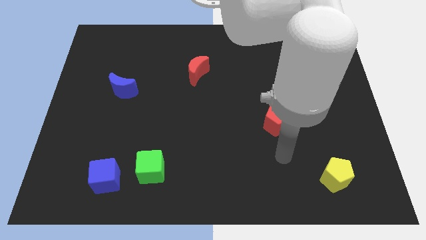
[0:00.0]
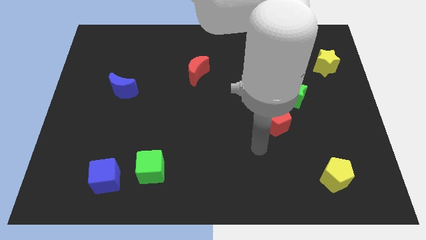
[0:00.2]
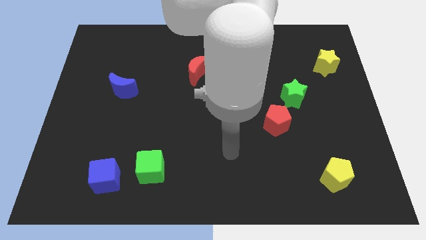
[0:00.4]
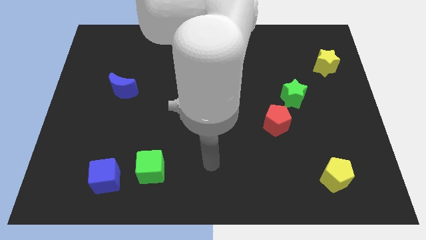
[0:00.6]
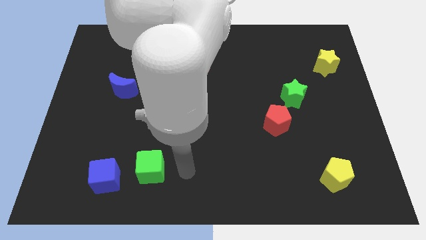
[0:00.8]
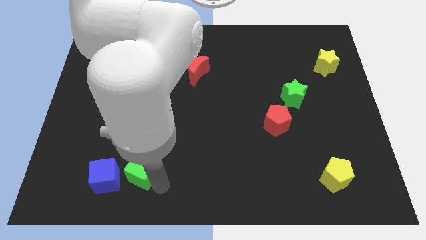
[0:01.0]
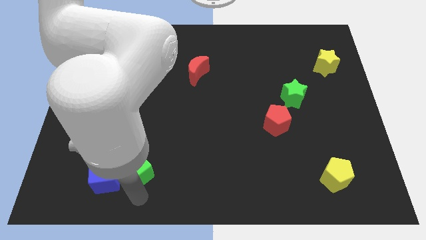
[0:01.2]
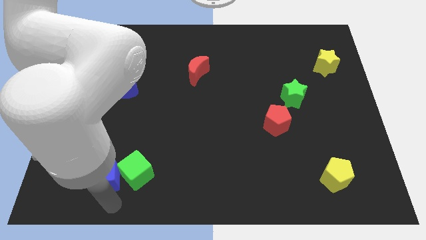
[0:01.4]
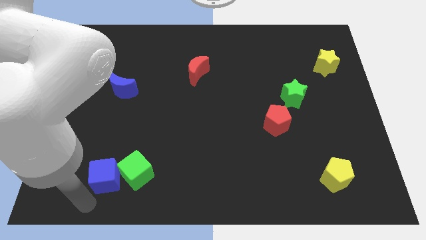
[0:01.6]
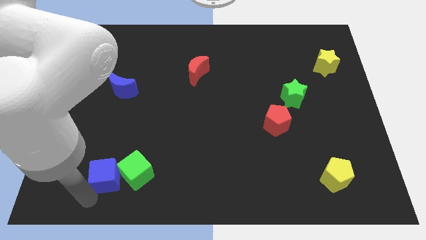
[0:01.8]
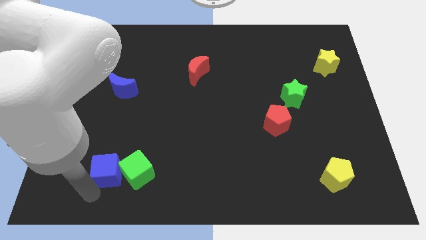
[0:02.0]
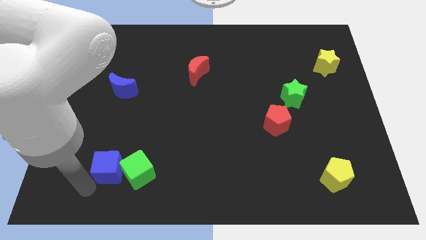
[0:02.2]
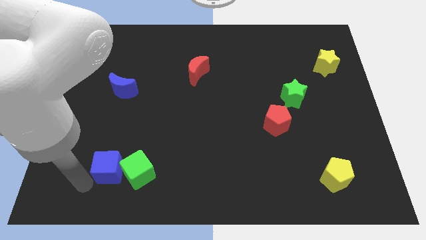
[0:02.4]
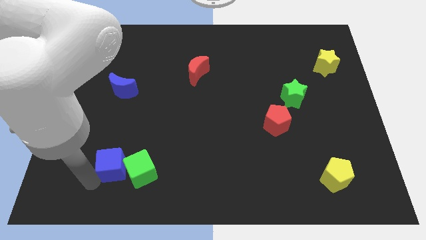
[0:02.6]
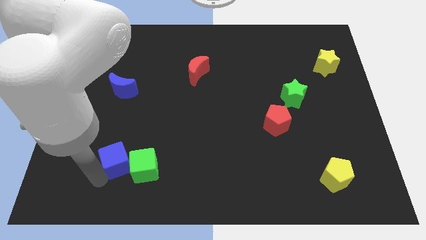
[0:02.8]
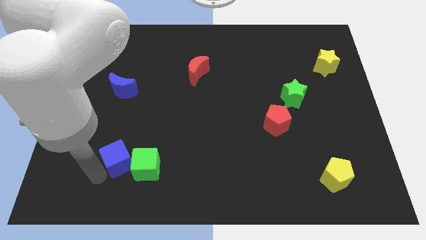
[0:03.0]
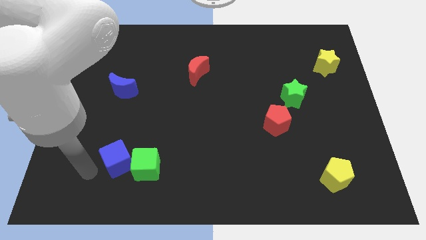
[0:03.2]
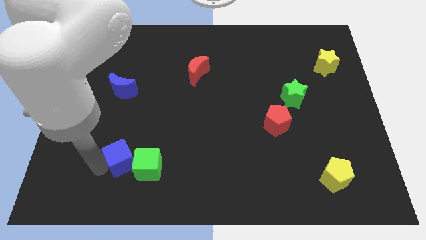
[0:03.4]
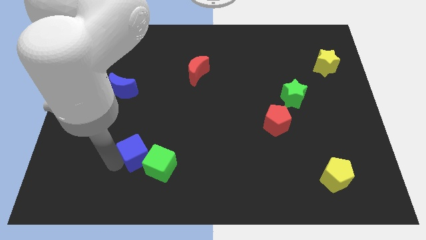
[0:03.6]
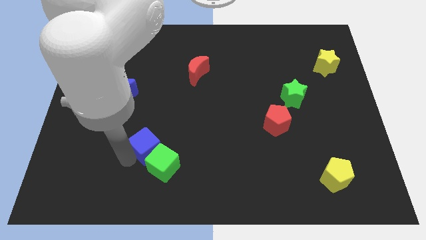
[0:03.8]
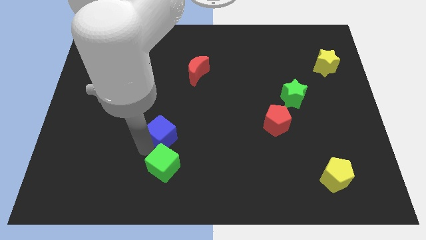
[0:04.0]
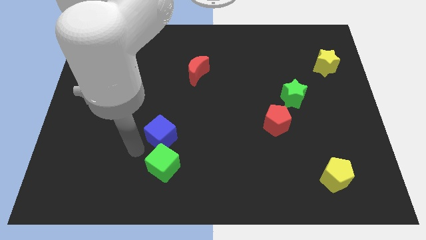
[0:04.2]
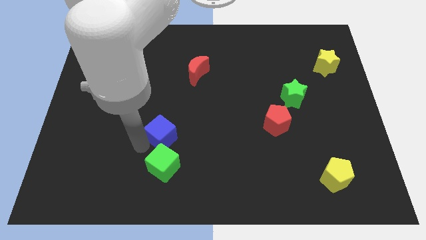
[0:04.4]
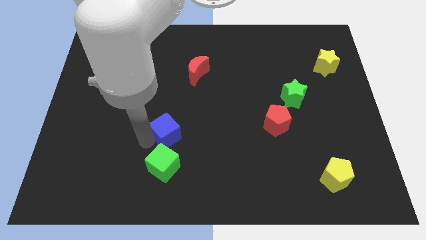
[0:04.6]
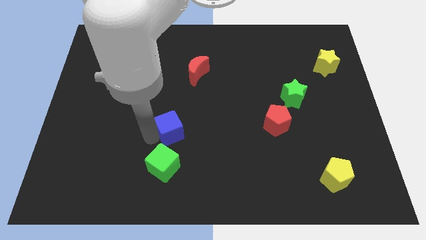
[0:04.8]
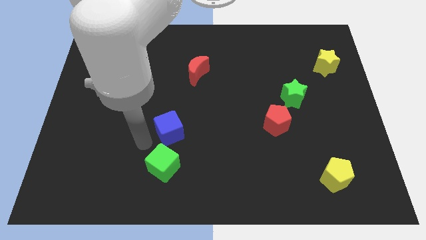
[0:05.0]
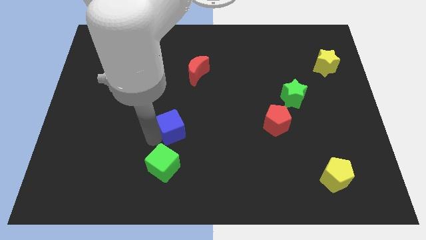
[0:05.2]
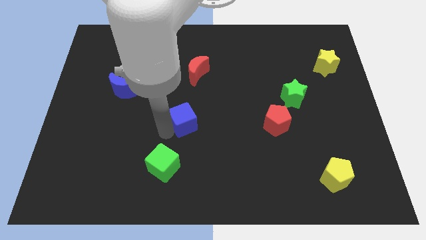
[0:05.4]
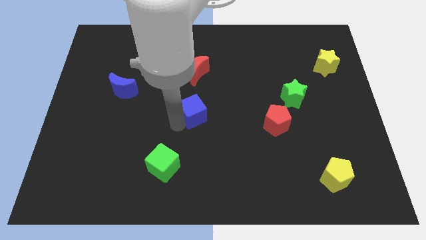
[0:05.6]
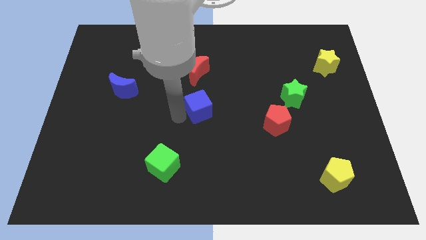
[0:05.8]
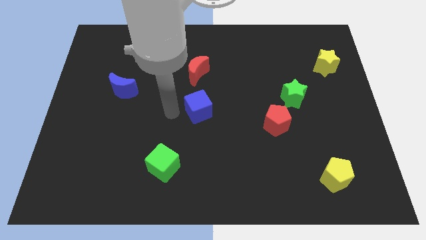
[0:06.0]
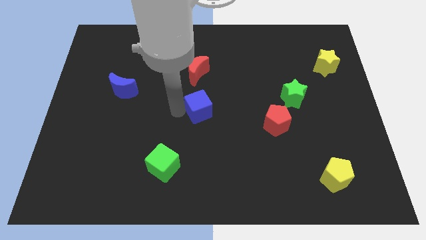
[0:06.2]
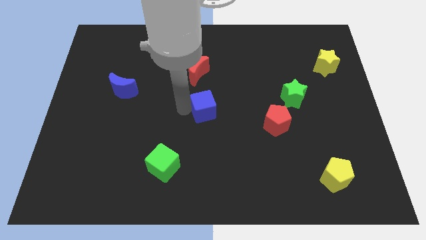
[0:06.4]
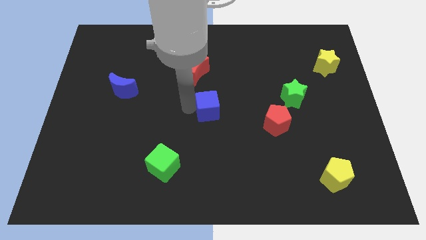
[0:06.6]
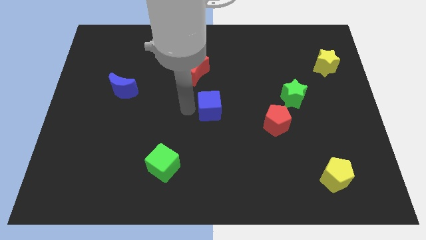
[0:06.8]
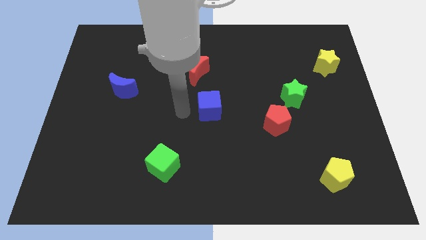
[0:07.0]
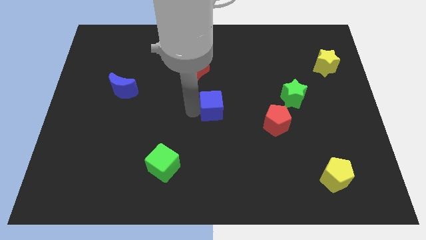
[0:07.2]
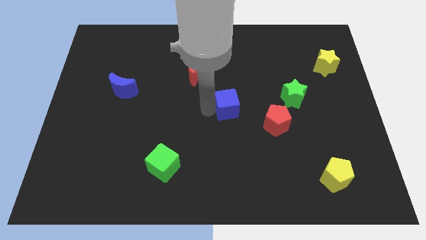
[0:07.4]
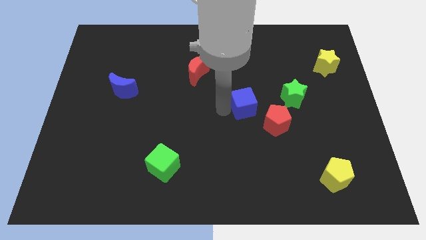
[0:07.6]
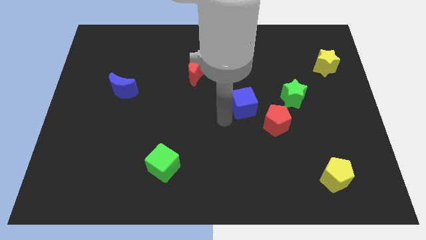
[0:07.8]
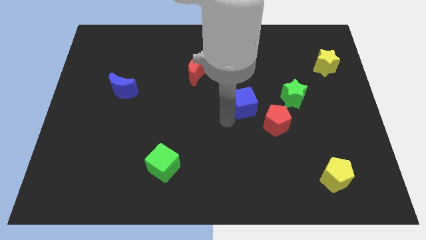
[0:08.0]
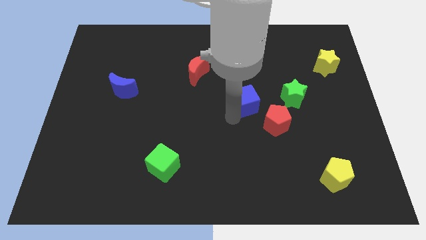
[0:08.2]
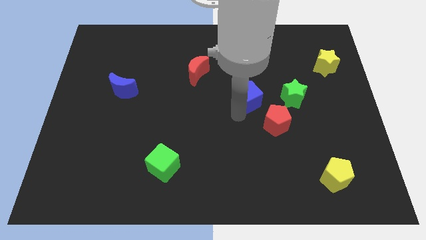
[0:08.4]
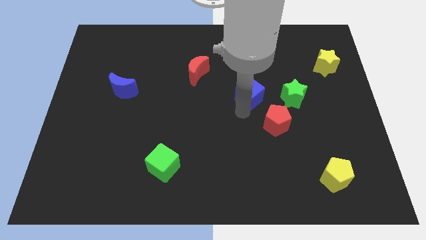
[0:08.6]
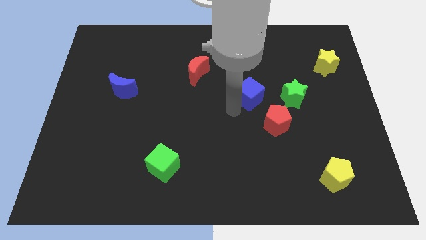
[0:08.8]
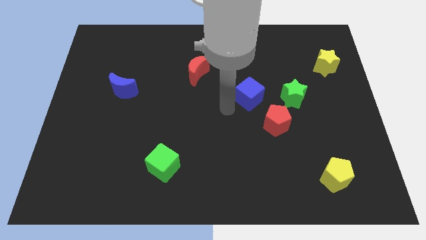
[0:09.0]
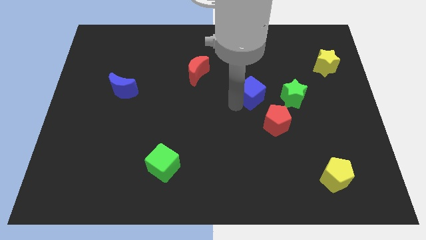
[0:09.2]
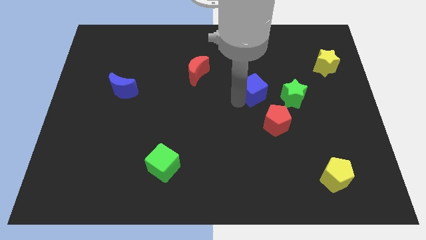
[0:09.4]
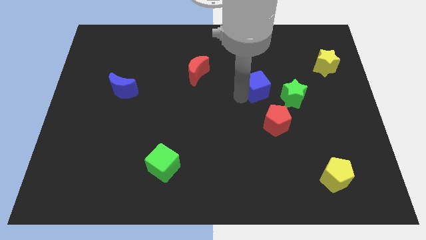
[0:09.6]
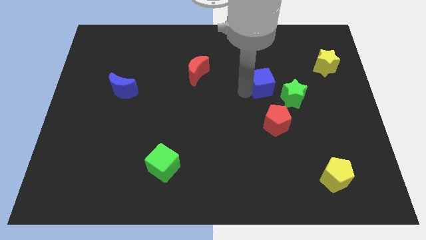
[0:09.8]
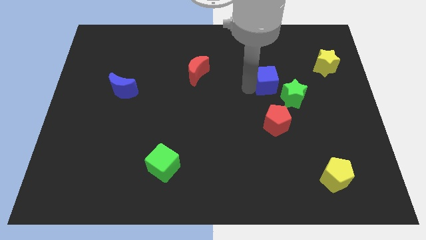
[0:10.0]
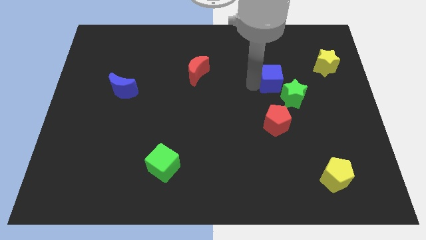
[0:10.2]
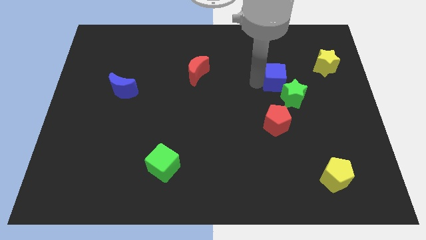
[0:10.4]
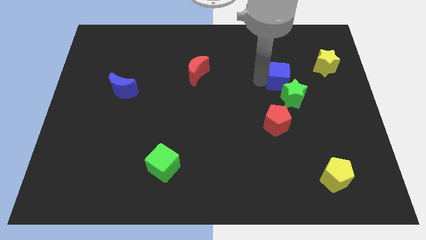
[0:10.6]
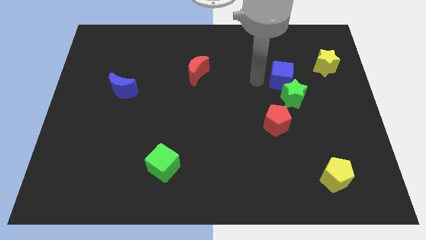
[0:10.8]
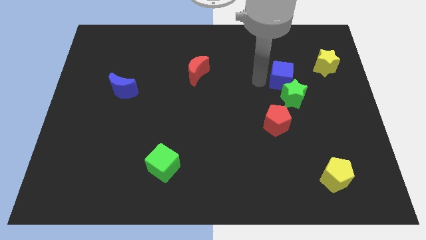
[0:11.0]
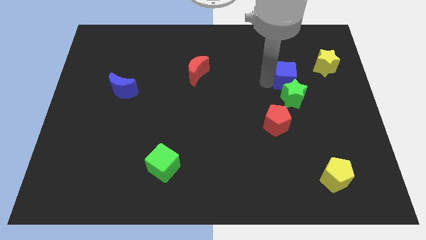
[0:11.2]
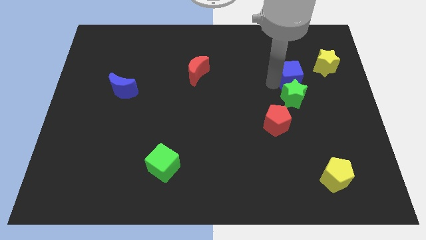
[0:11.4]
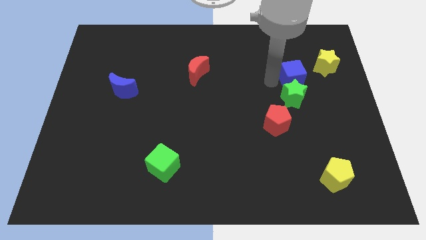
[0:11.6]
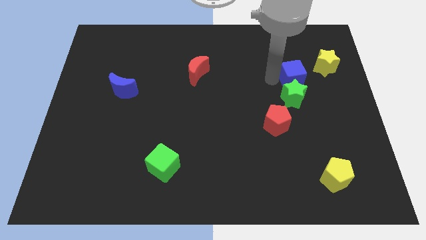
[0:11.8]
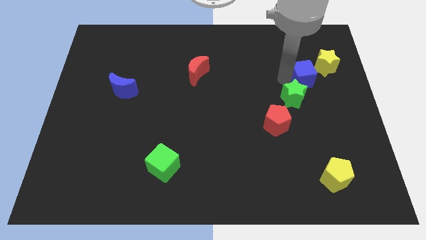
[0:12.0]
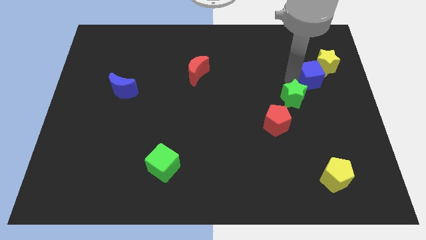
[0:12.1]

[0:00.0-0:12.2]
slide the blue cube to the yellow star

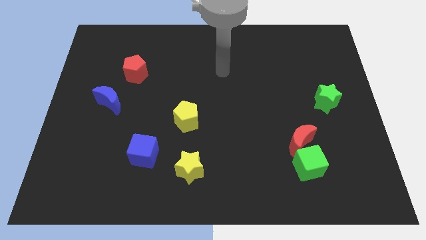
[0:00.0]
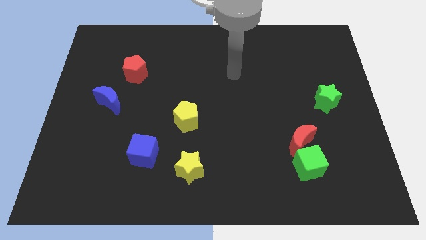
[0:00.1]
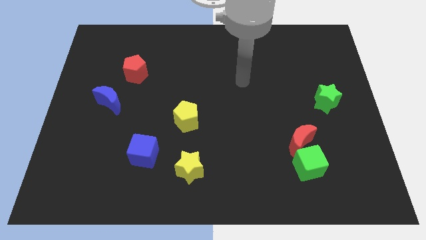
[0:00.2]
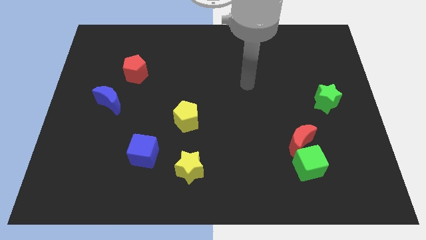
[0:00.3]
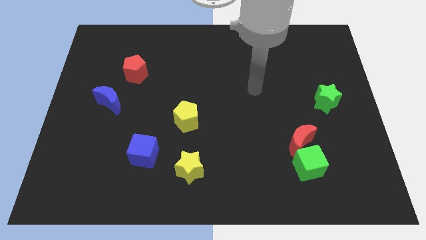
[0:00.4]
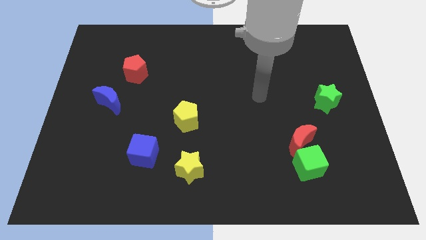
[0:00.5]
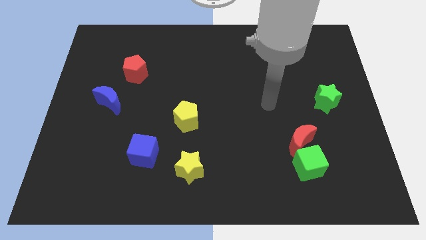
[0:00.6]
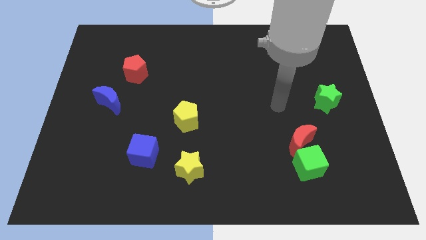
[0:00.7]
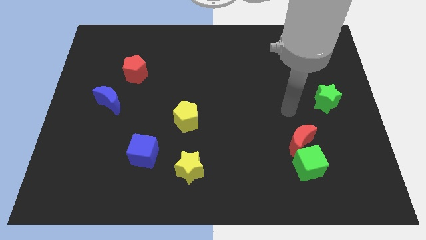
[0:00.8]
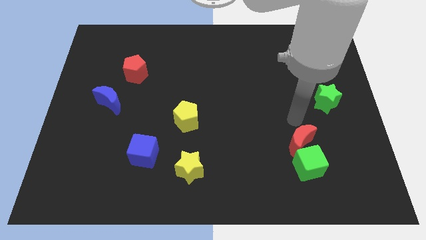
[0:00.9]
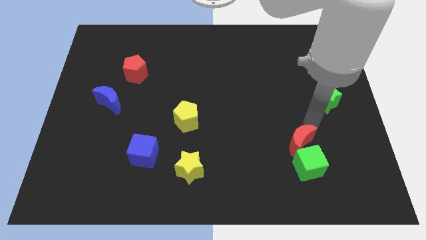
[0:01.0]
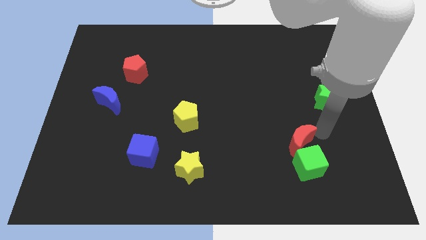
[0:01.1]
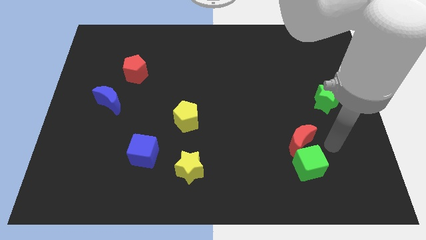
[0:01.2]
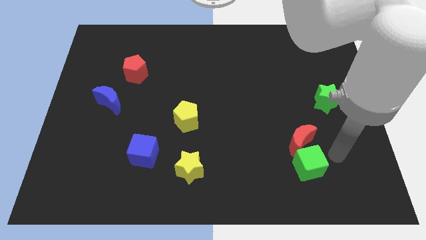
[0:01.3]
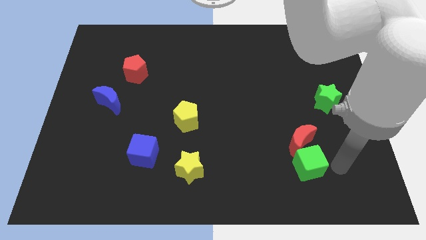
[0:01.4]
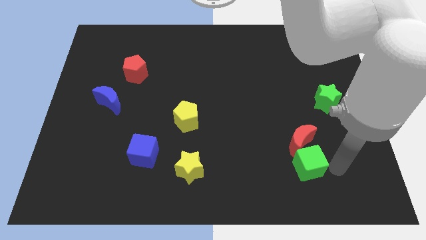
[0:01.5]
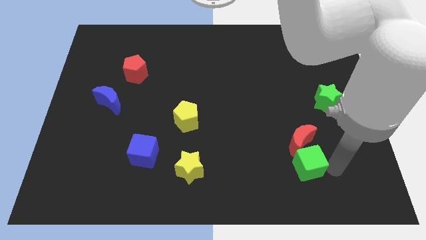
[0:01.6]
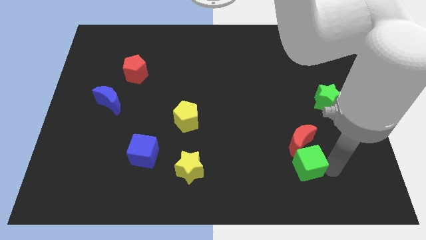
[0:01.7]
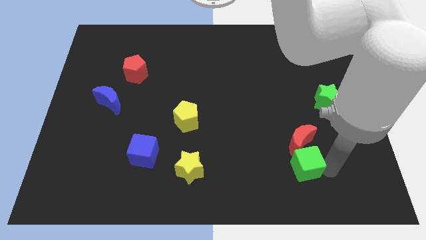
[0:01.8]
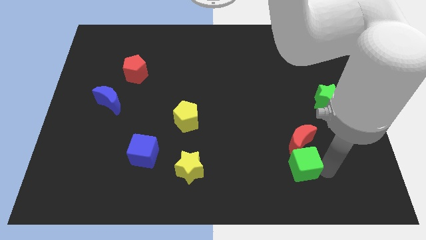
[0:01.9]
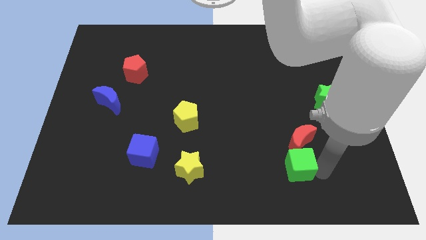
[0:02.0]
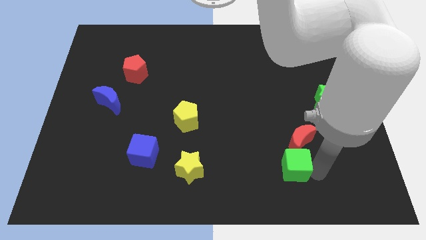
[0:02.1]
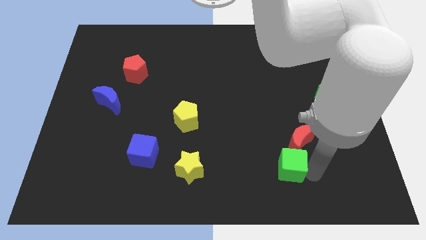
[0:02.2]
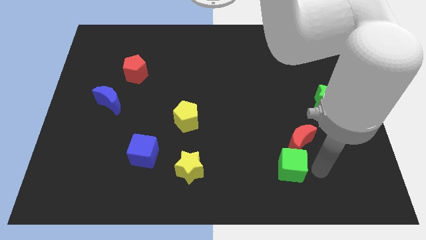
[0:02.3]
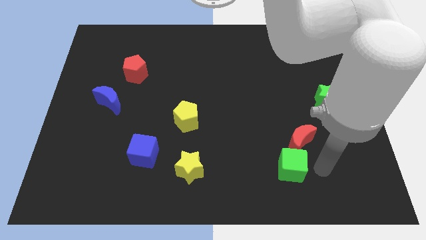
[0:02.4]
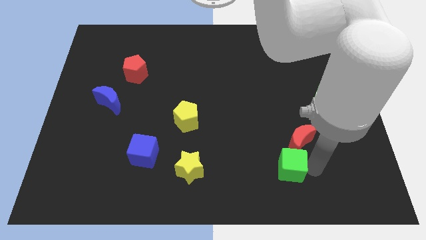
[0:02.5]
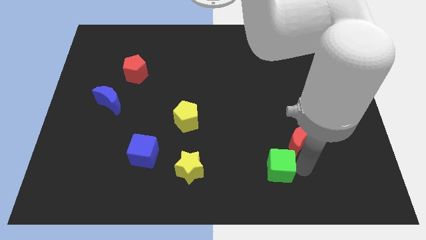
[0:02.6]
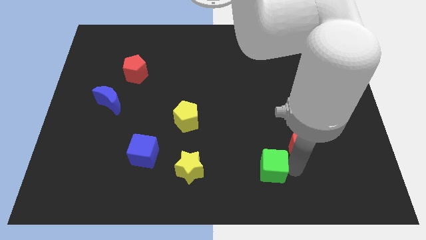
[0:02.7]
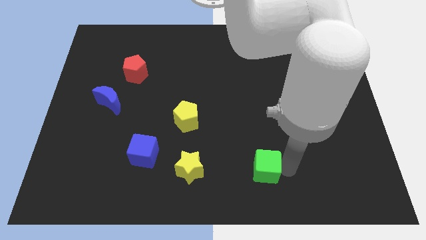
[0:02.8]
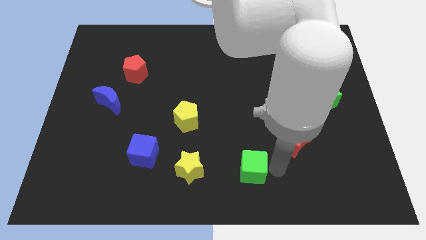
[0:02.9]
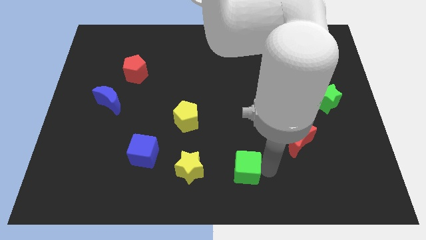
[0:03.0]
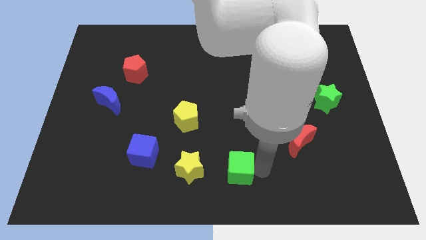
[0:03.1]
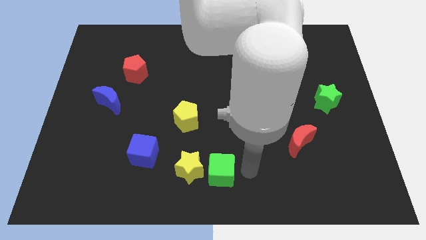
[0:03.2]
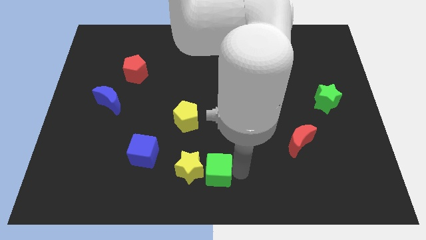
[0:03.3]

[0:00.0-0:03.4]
slide the green cube to the yellow star
